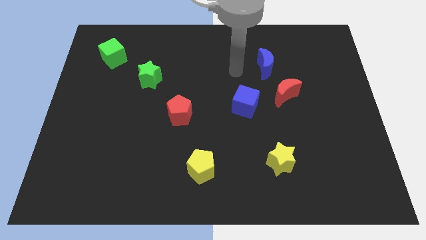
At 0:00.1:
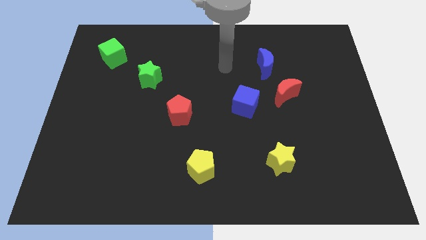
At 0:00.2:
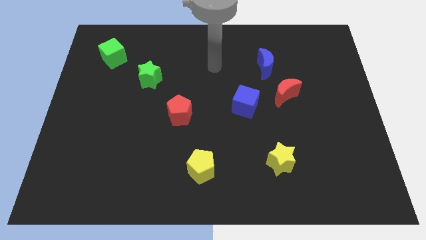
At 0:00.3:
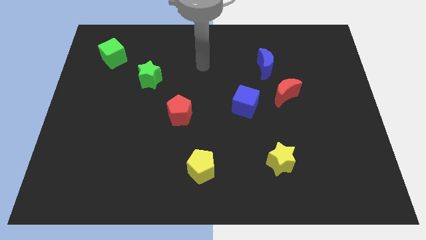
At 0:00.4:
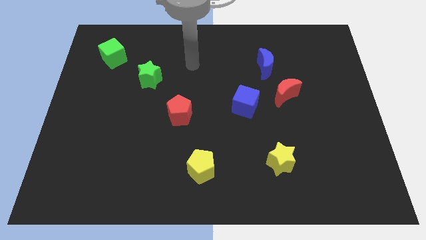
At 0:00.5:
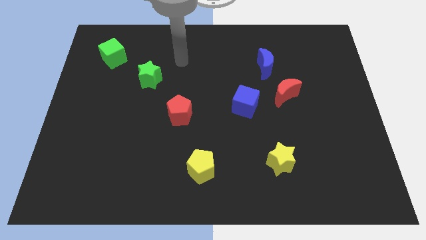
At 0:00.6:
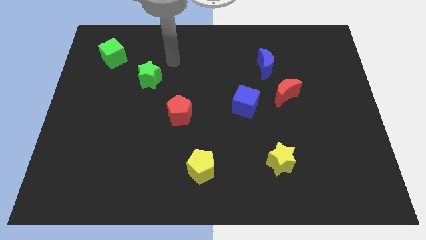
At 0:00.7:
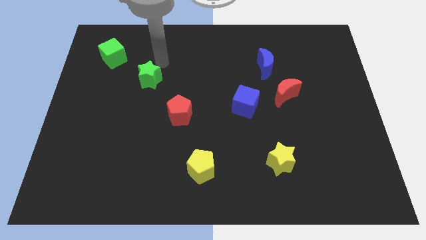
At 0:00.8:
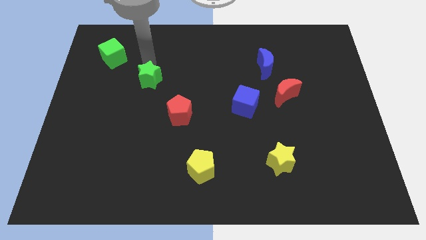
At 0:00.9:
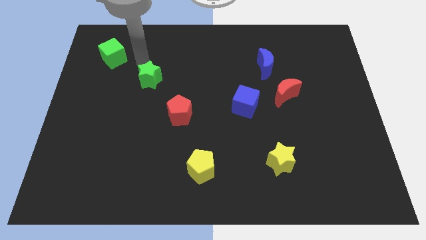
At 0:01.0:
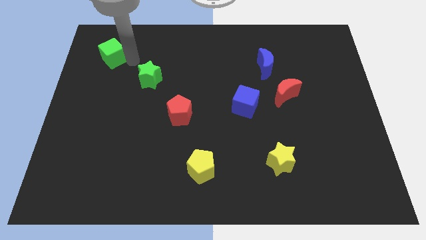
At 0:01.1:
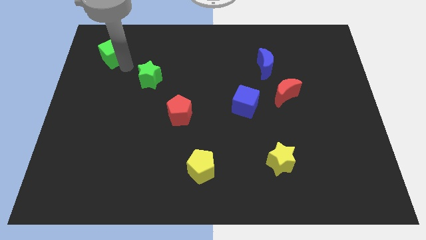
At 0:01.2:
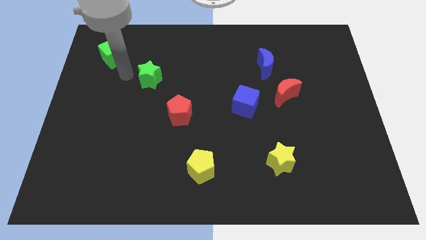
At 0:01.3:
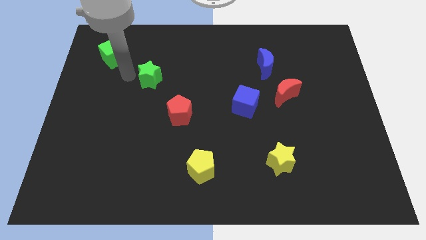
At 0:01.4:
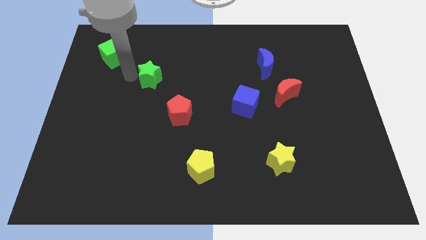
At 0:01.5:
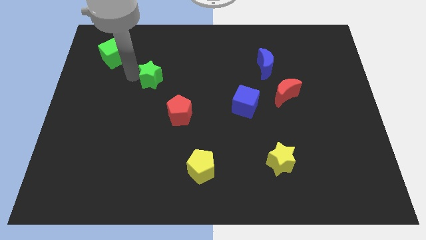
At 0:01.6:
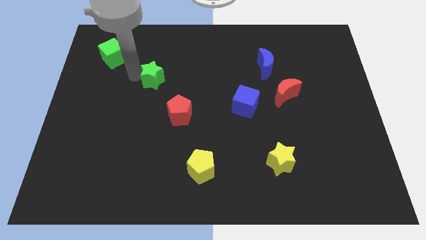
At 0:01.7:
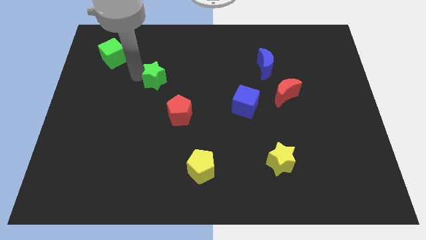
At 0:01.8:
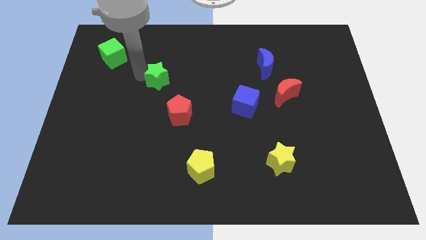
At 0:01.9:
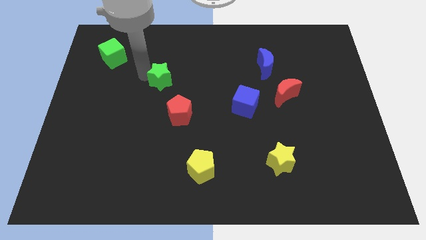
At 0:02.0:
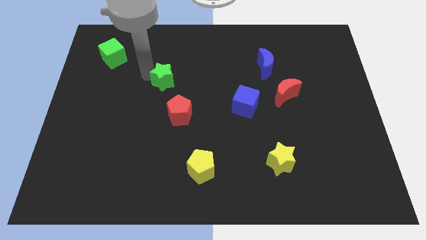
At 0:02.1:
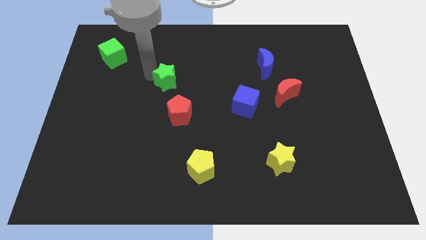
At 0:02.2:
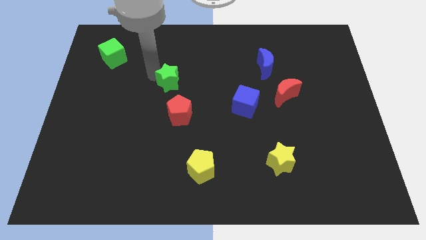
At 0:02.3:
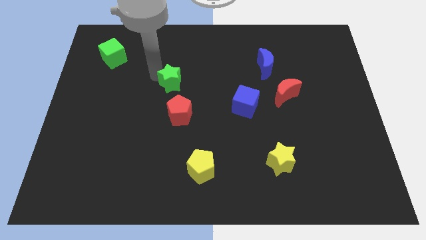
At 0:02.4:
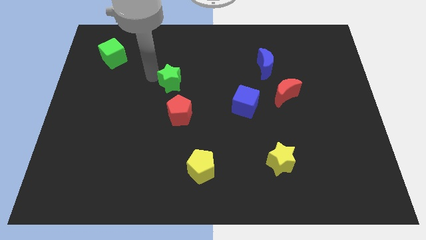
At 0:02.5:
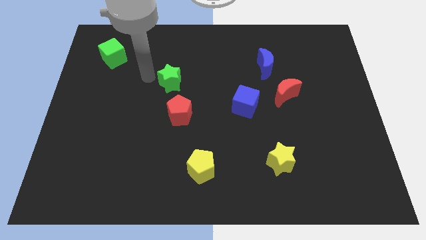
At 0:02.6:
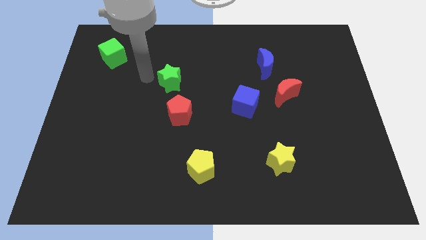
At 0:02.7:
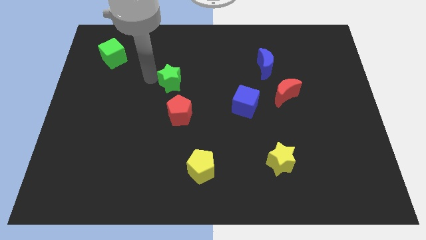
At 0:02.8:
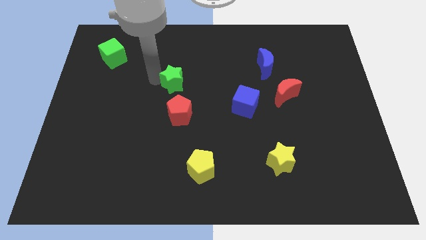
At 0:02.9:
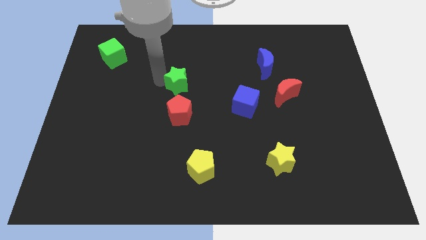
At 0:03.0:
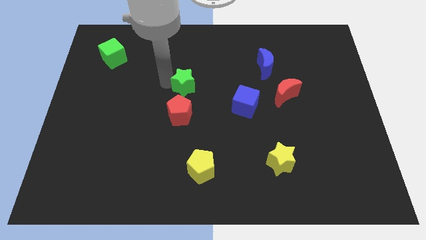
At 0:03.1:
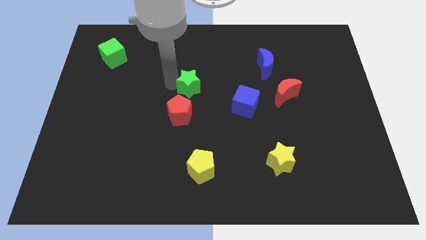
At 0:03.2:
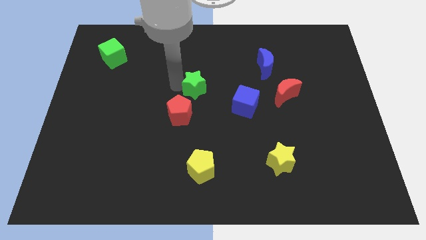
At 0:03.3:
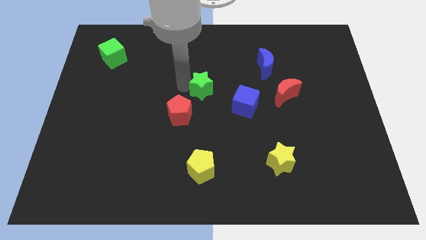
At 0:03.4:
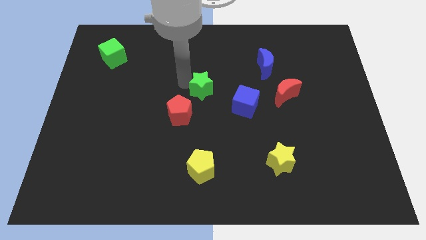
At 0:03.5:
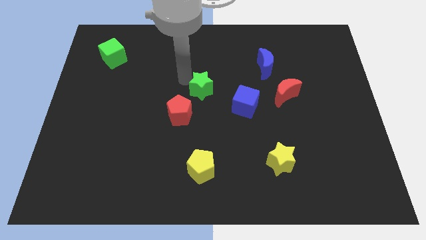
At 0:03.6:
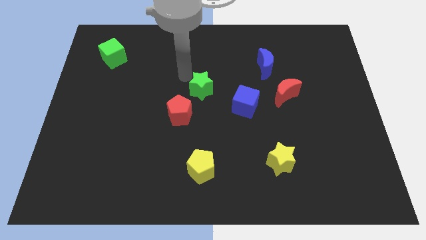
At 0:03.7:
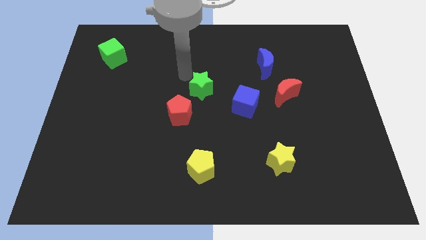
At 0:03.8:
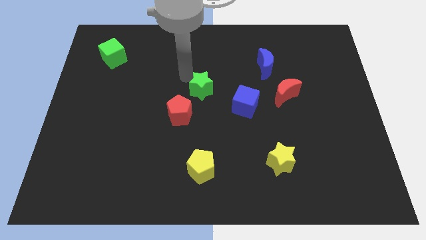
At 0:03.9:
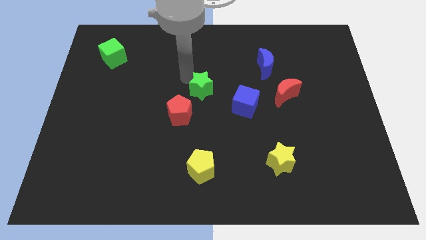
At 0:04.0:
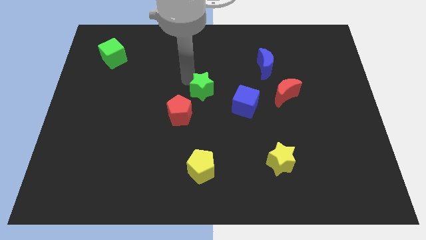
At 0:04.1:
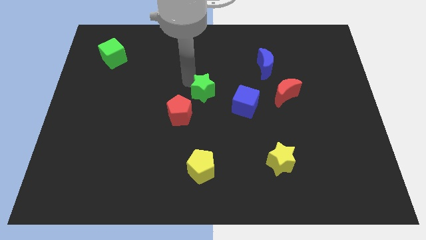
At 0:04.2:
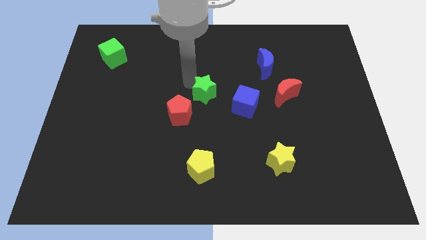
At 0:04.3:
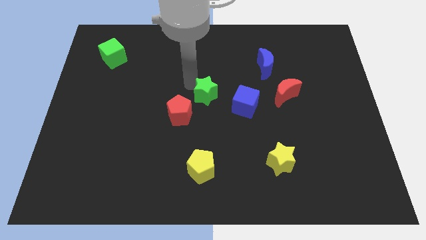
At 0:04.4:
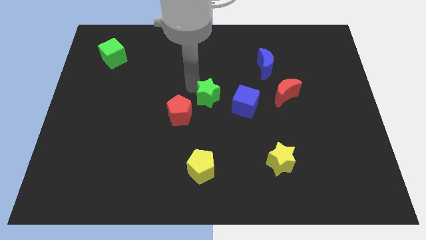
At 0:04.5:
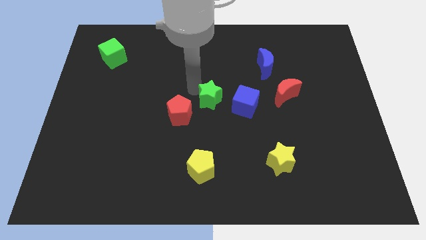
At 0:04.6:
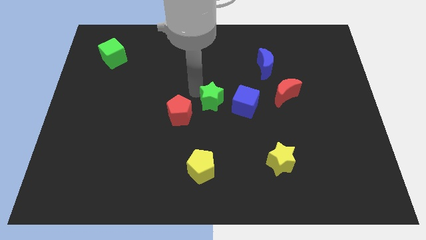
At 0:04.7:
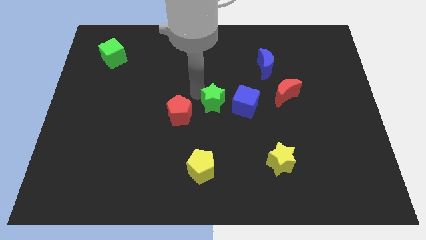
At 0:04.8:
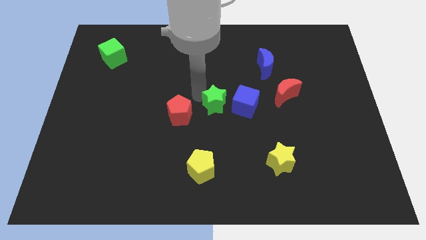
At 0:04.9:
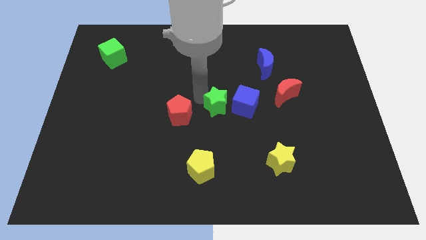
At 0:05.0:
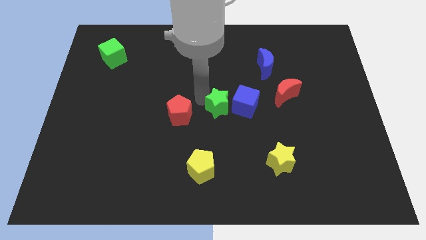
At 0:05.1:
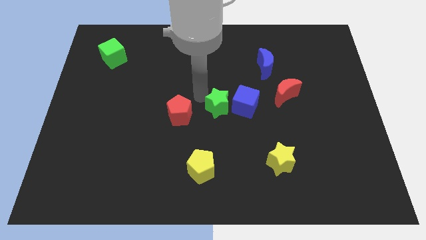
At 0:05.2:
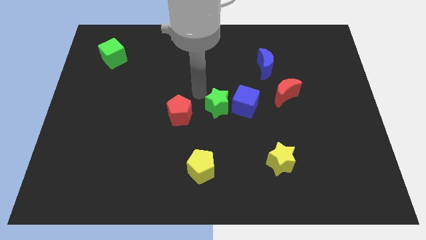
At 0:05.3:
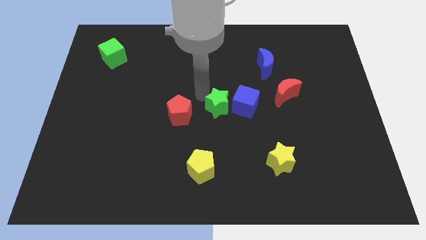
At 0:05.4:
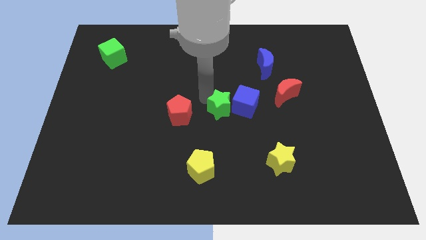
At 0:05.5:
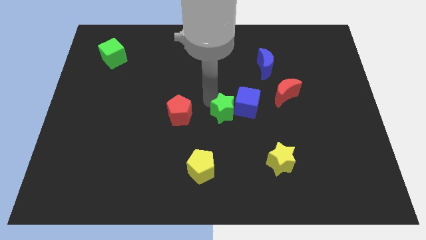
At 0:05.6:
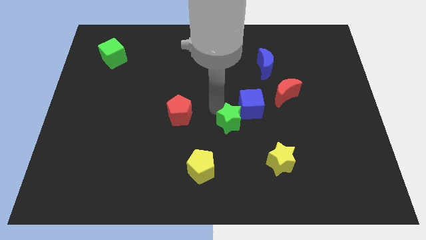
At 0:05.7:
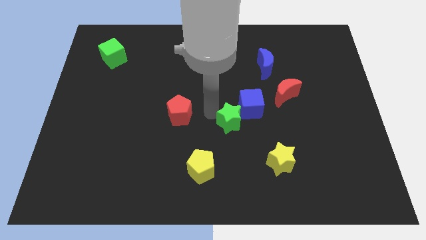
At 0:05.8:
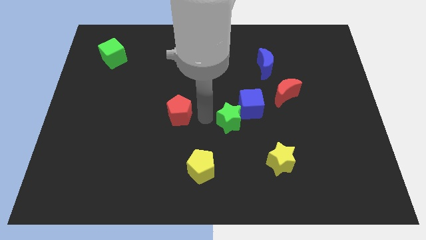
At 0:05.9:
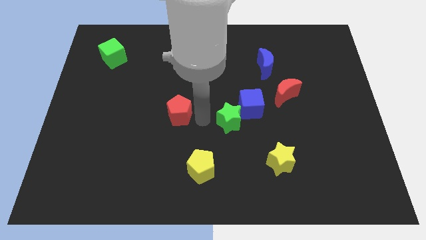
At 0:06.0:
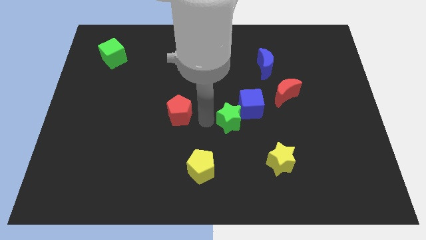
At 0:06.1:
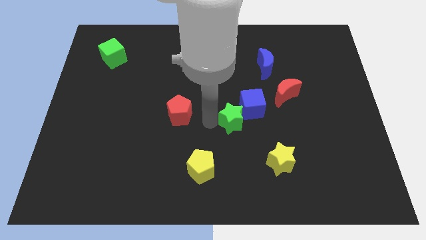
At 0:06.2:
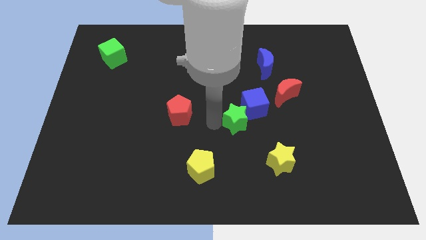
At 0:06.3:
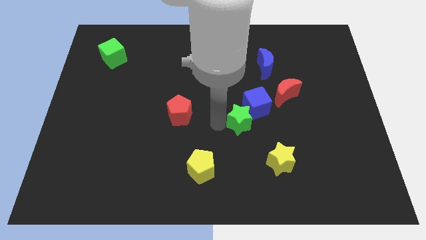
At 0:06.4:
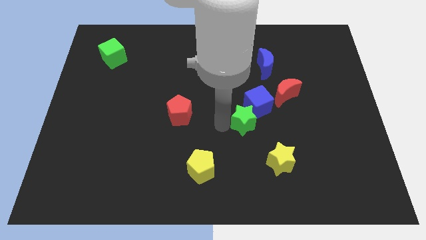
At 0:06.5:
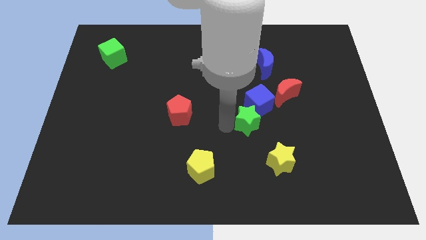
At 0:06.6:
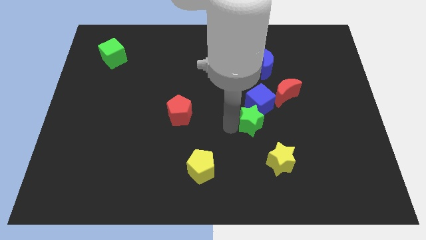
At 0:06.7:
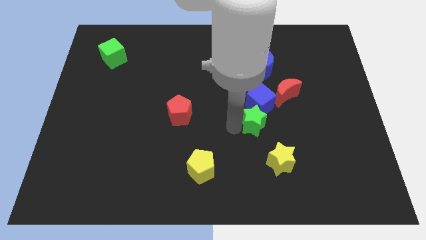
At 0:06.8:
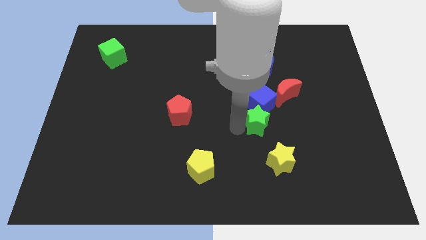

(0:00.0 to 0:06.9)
push the green star to the bottom right side of the blue cube
